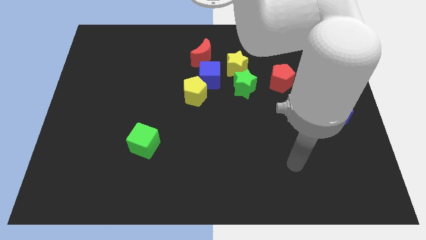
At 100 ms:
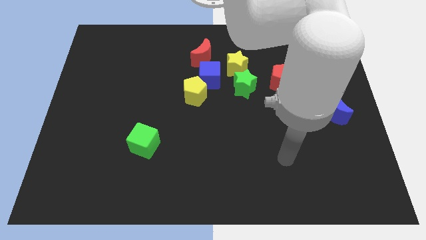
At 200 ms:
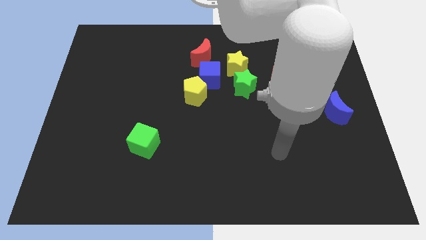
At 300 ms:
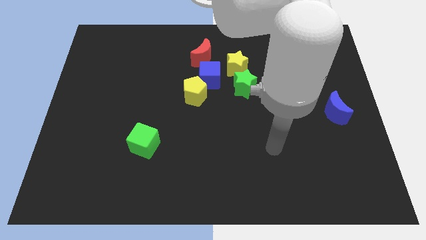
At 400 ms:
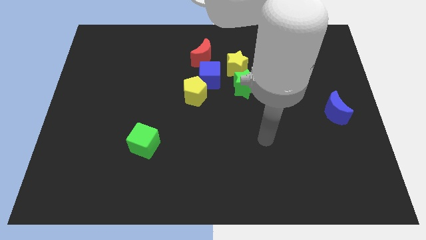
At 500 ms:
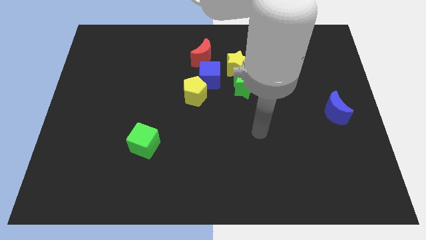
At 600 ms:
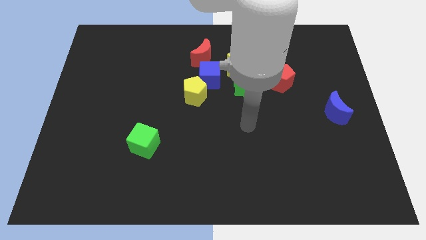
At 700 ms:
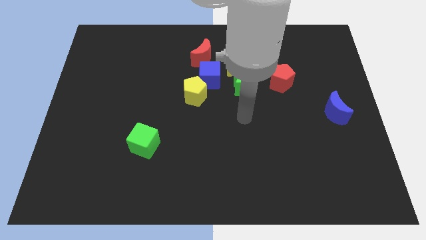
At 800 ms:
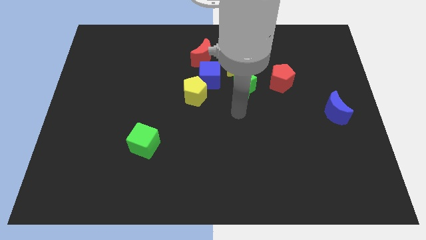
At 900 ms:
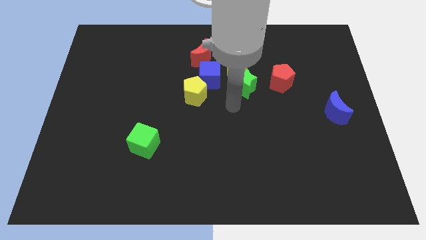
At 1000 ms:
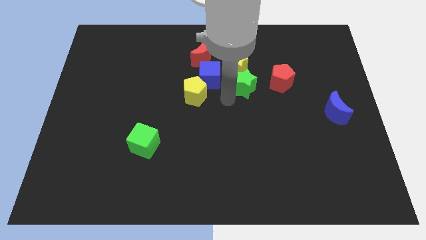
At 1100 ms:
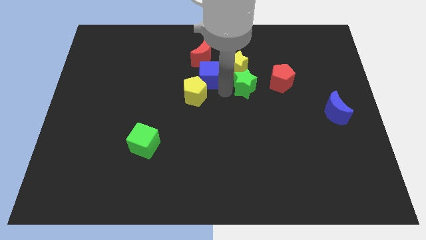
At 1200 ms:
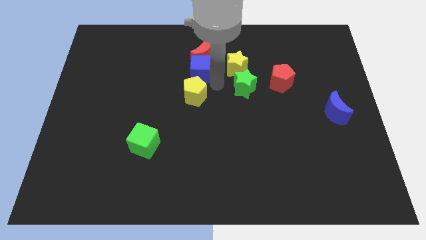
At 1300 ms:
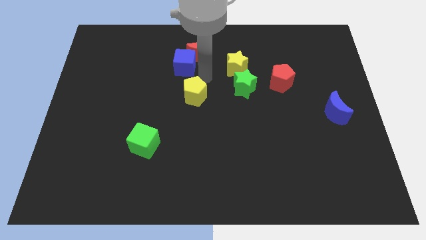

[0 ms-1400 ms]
pull the yellow pentagon apart from the blue cube

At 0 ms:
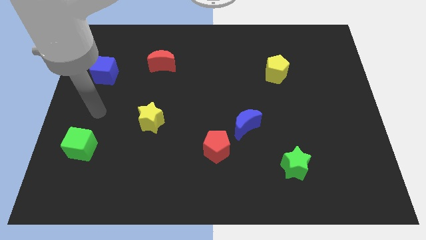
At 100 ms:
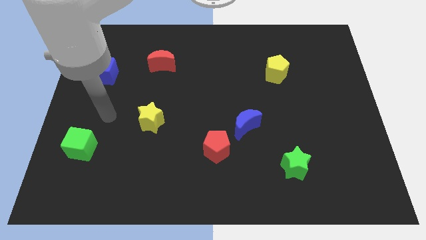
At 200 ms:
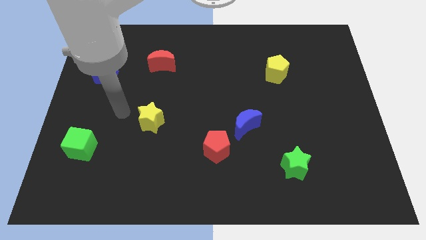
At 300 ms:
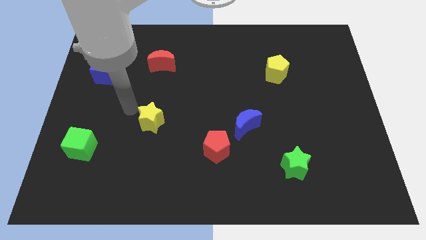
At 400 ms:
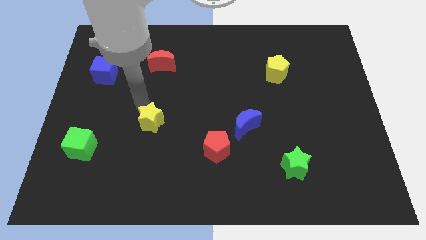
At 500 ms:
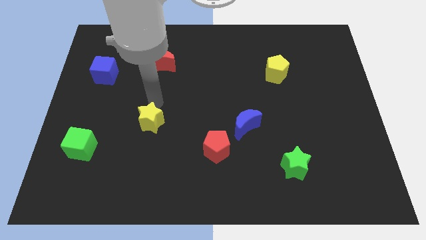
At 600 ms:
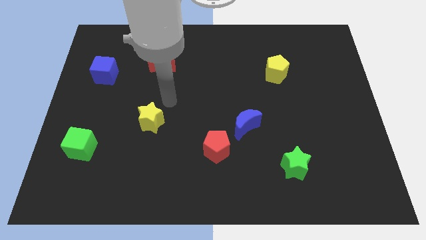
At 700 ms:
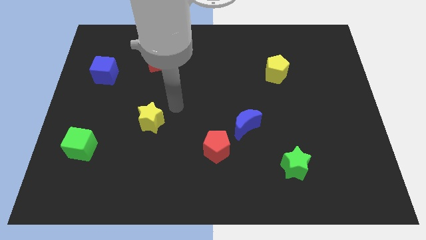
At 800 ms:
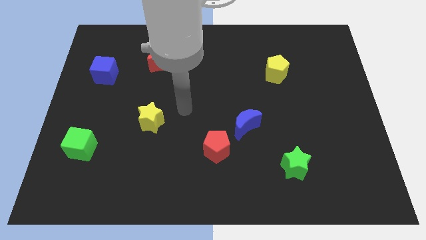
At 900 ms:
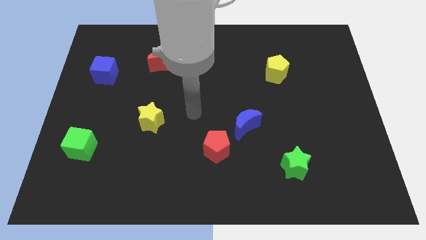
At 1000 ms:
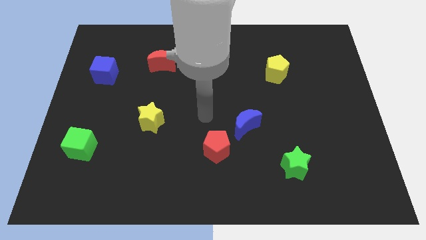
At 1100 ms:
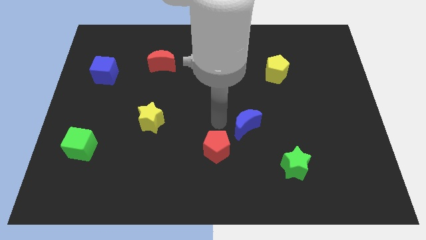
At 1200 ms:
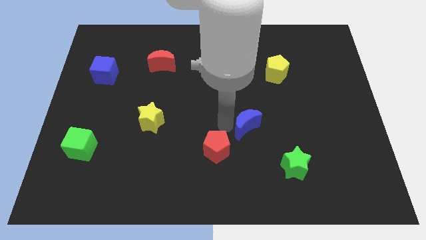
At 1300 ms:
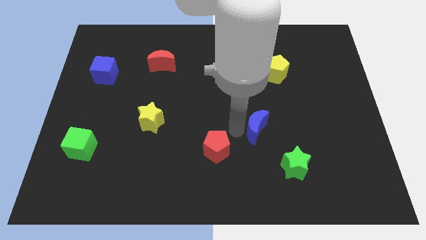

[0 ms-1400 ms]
pull the red pentagon apart from the blue moon

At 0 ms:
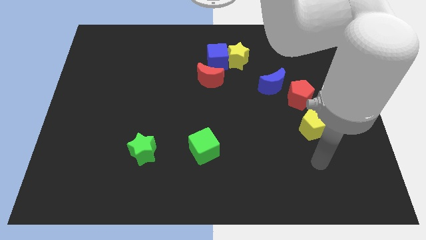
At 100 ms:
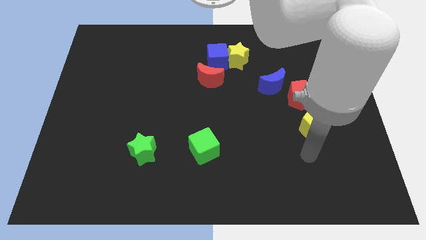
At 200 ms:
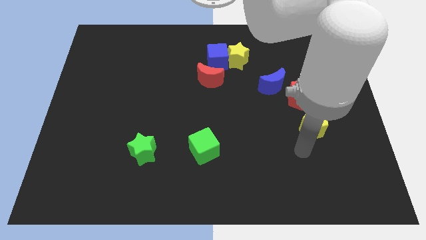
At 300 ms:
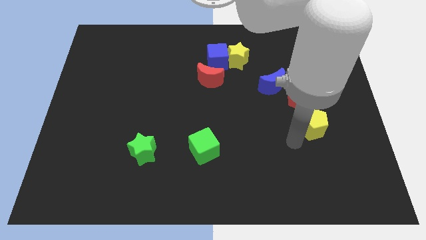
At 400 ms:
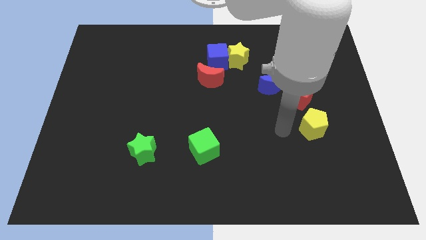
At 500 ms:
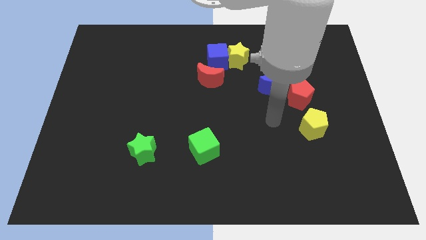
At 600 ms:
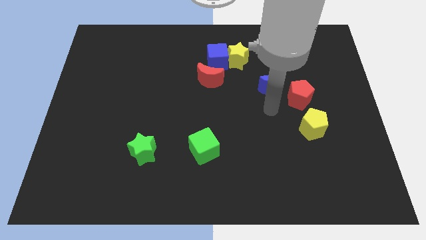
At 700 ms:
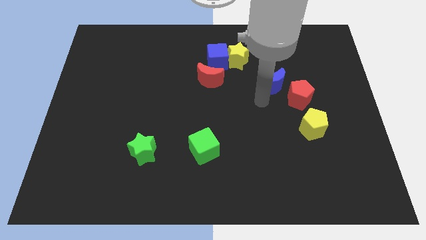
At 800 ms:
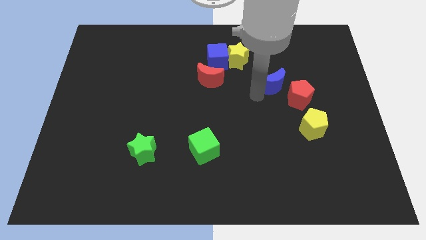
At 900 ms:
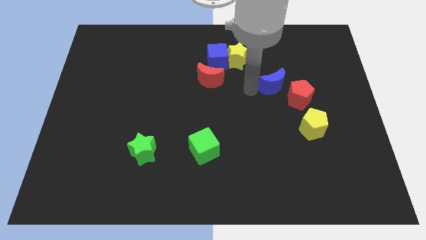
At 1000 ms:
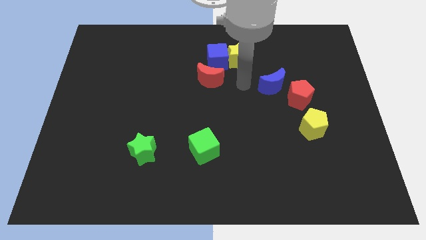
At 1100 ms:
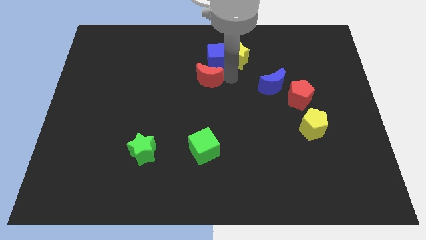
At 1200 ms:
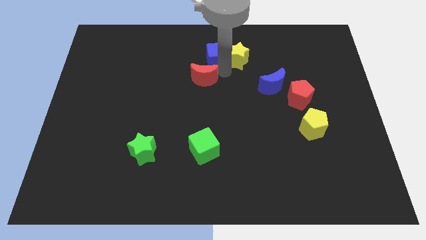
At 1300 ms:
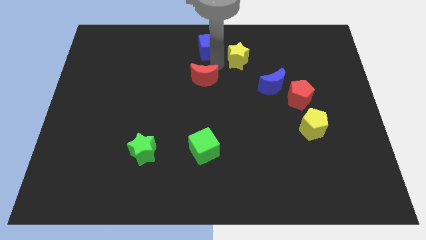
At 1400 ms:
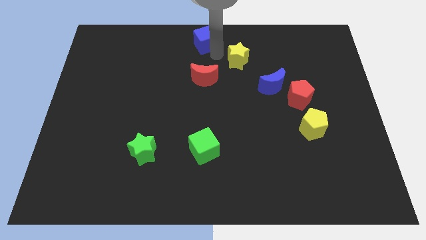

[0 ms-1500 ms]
move the yellow star away from the blue cube

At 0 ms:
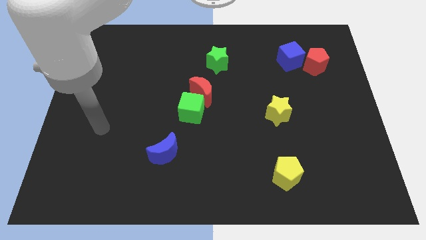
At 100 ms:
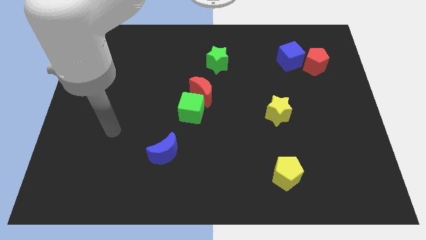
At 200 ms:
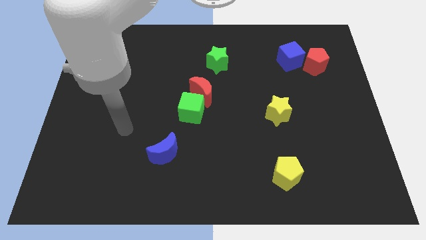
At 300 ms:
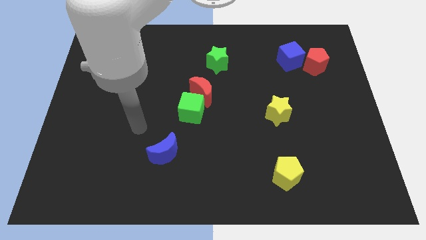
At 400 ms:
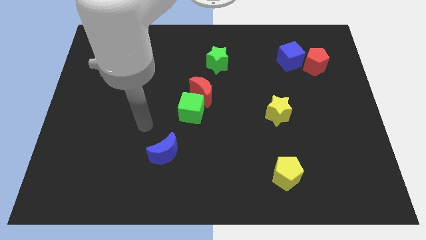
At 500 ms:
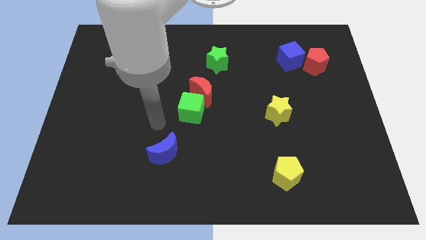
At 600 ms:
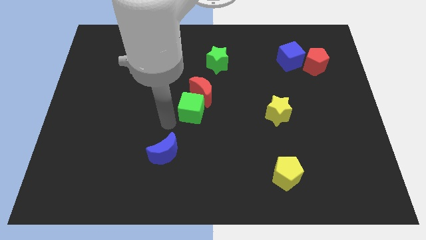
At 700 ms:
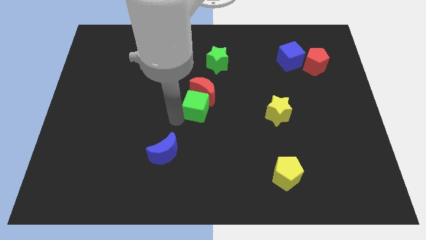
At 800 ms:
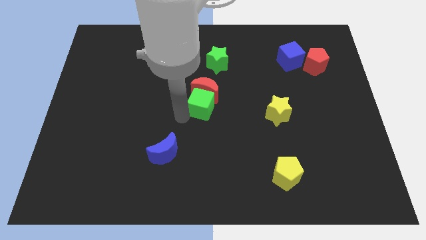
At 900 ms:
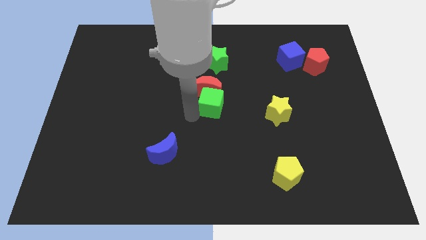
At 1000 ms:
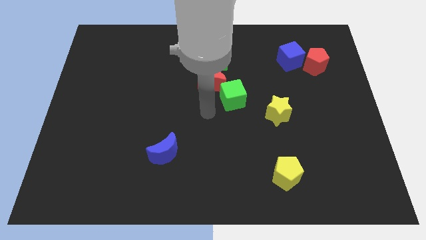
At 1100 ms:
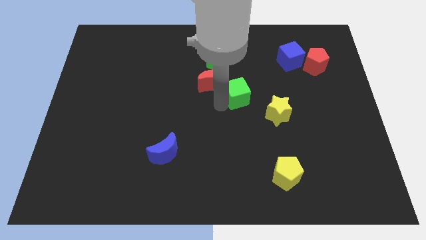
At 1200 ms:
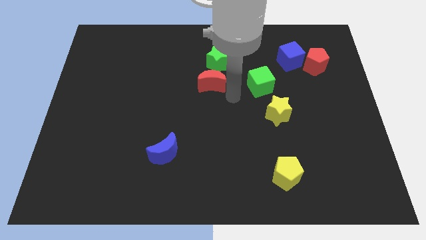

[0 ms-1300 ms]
separate the red moon from the green cube

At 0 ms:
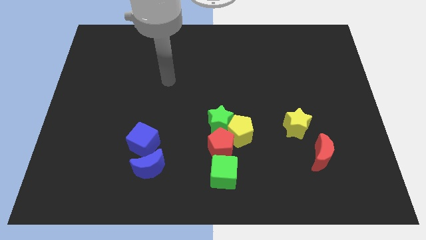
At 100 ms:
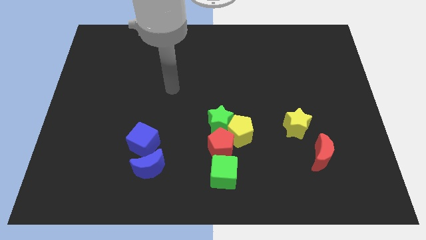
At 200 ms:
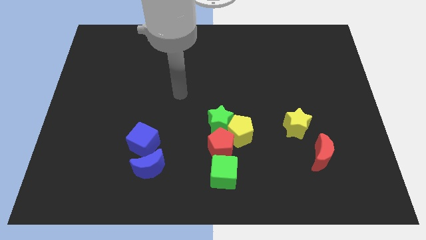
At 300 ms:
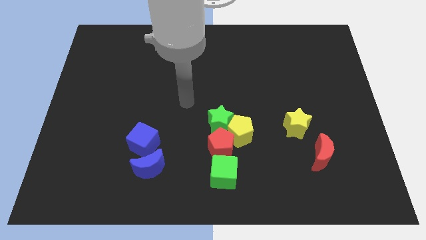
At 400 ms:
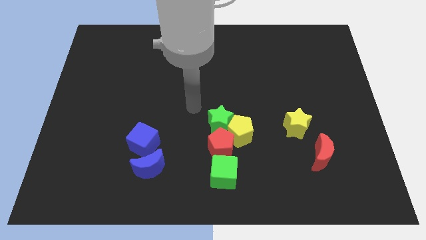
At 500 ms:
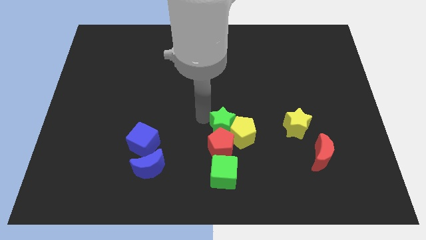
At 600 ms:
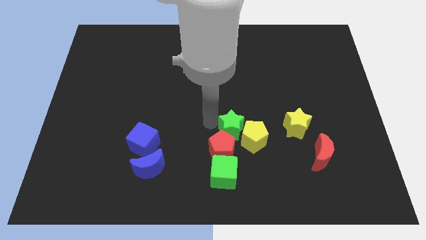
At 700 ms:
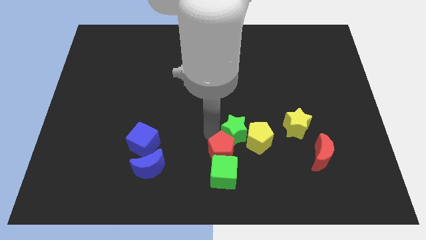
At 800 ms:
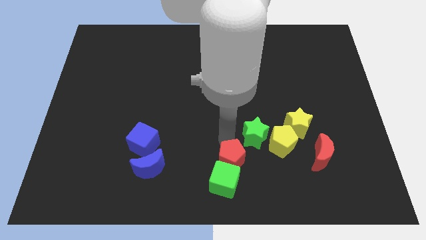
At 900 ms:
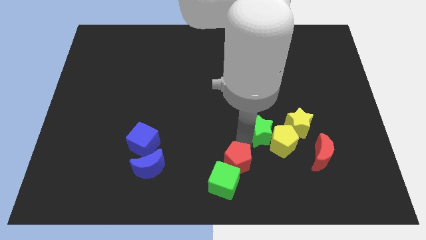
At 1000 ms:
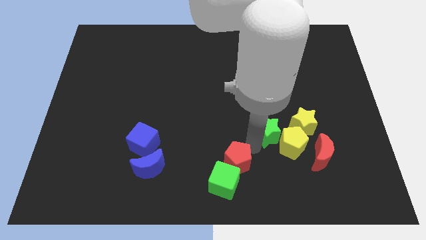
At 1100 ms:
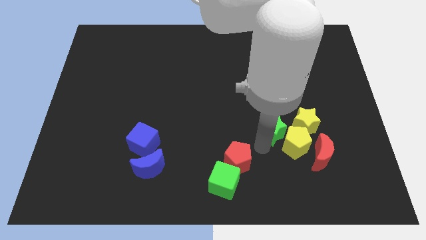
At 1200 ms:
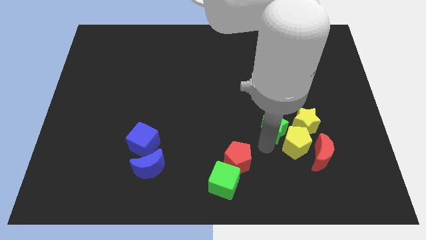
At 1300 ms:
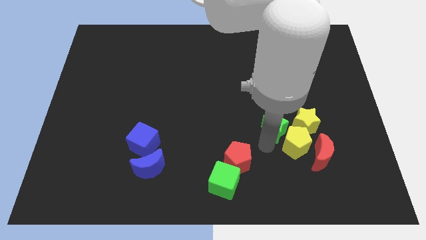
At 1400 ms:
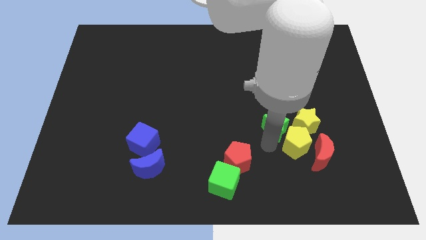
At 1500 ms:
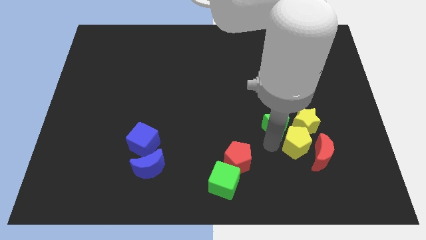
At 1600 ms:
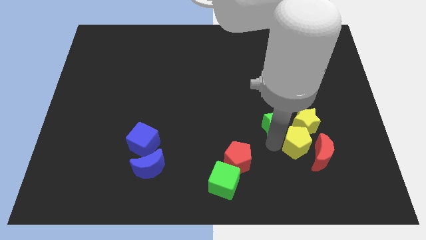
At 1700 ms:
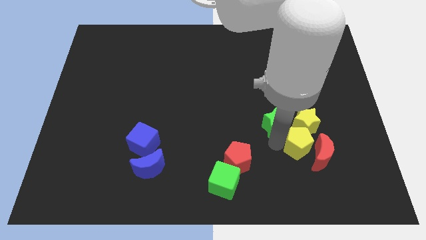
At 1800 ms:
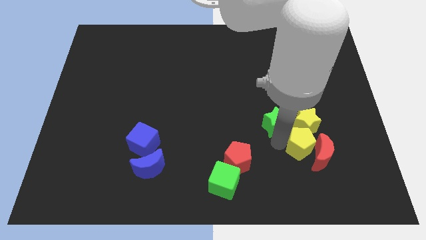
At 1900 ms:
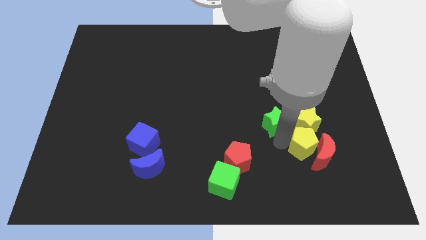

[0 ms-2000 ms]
separate the yellow pentagon from the green star and red pentagon

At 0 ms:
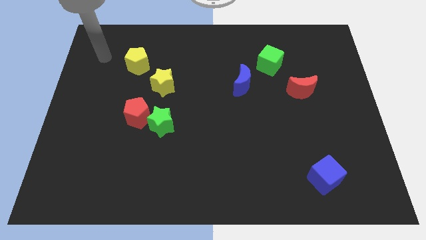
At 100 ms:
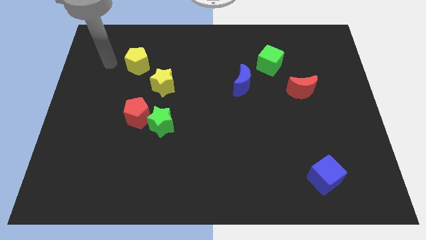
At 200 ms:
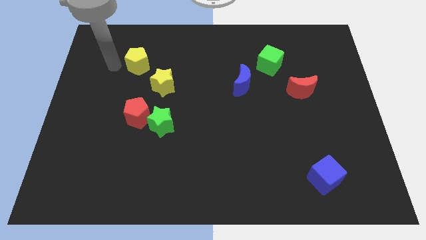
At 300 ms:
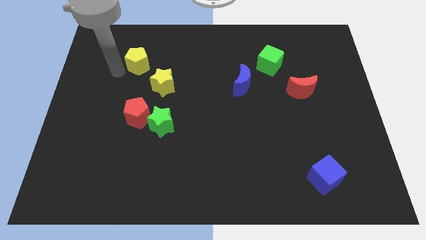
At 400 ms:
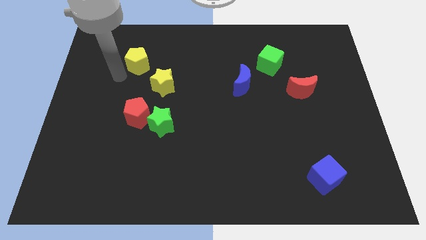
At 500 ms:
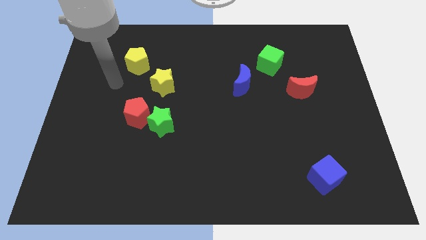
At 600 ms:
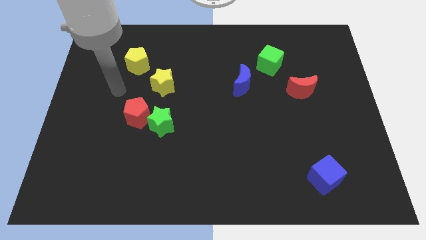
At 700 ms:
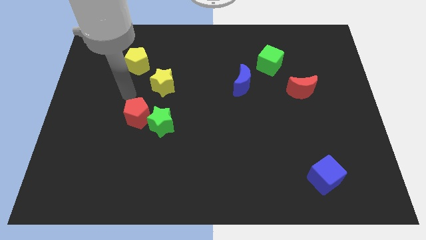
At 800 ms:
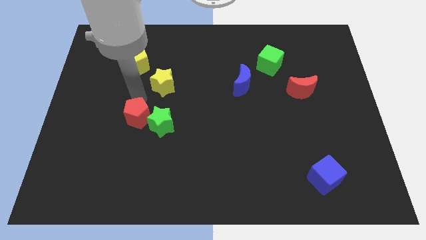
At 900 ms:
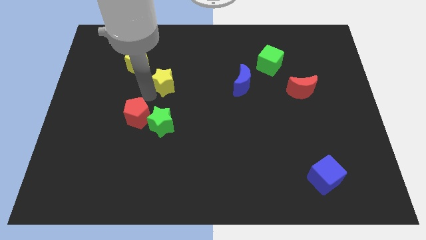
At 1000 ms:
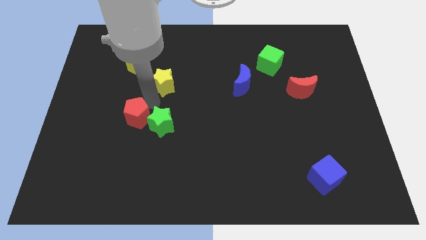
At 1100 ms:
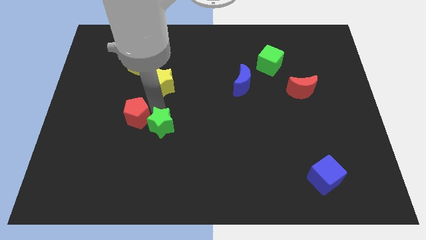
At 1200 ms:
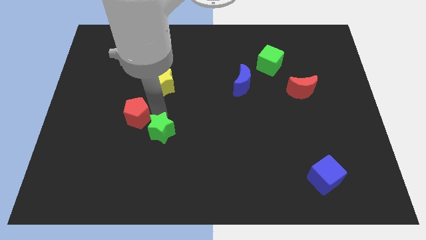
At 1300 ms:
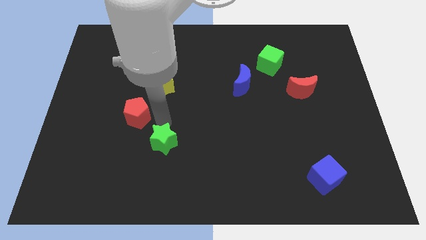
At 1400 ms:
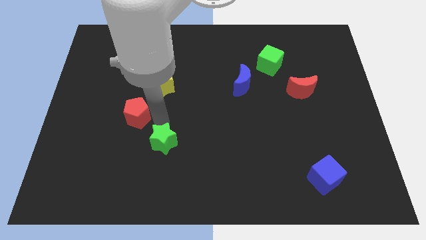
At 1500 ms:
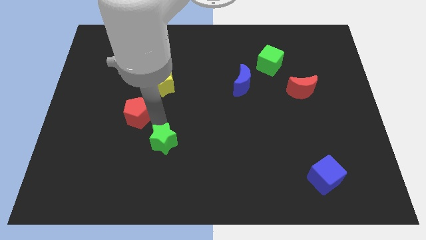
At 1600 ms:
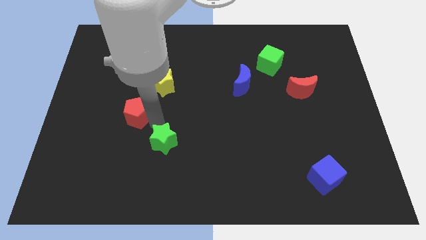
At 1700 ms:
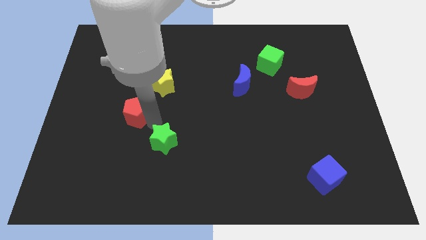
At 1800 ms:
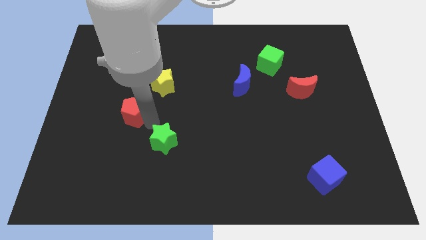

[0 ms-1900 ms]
pull the red pentagon apart from the green star
